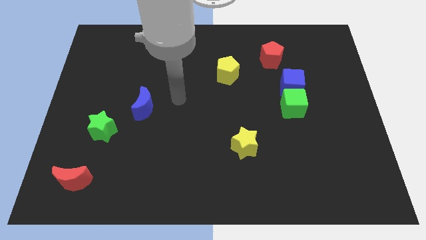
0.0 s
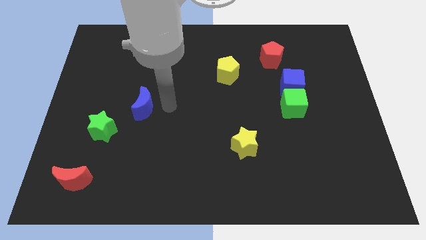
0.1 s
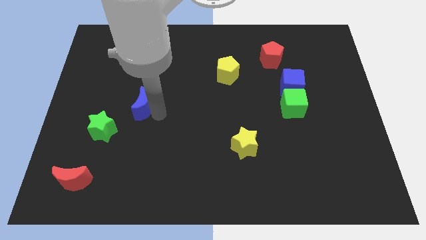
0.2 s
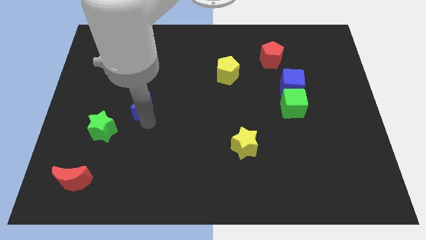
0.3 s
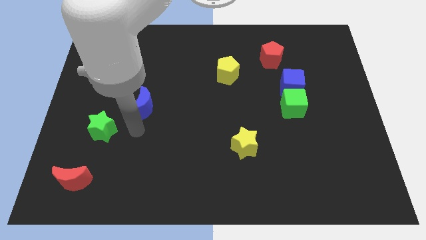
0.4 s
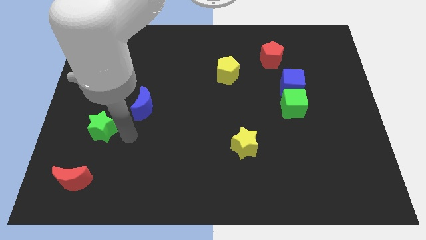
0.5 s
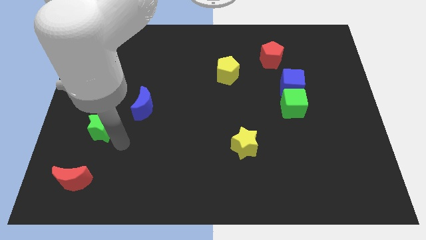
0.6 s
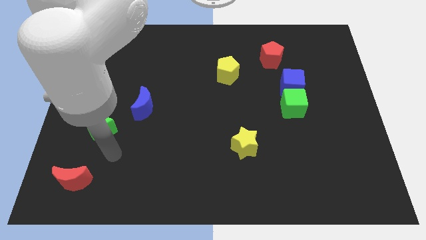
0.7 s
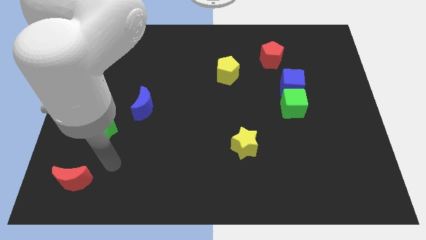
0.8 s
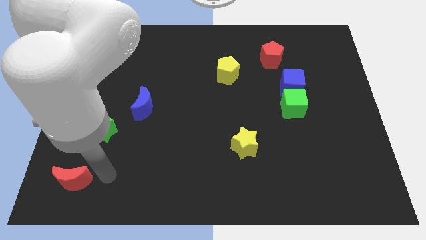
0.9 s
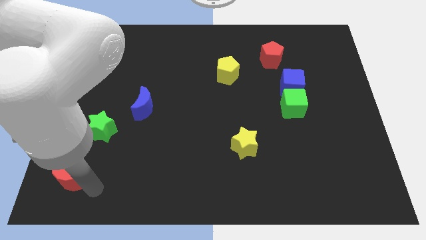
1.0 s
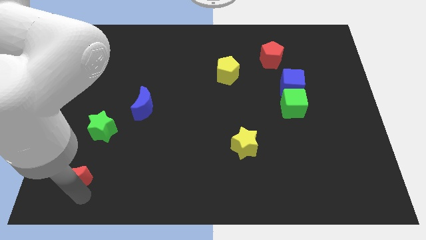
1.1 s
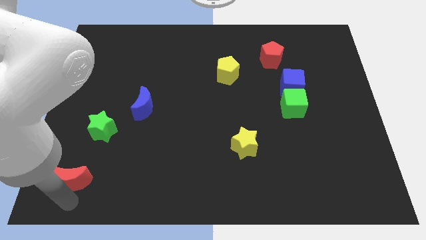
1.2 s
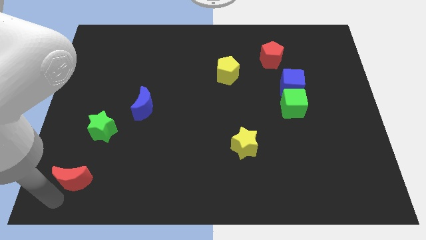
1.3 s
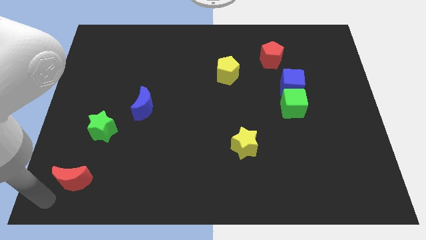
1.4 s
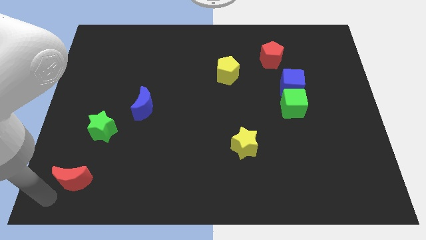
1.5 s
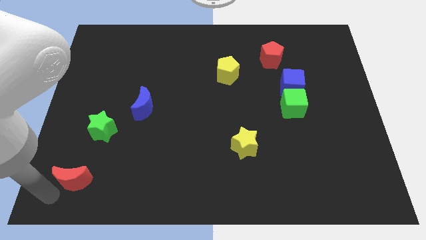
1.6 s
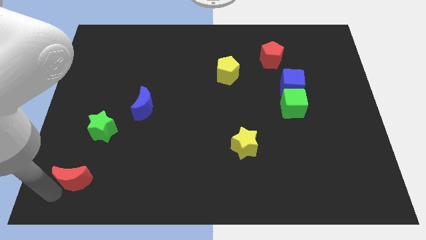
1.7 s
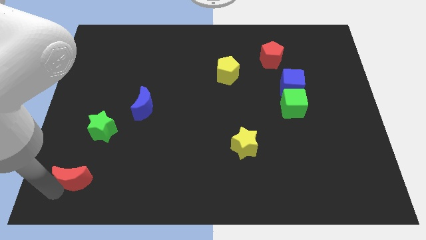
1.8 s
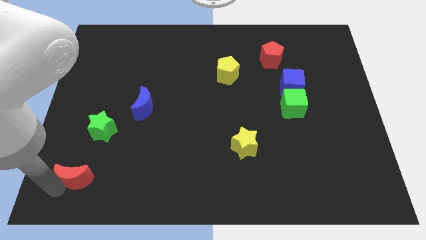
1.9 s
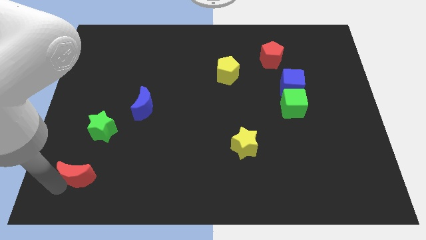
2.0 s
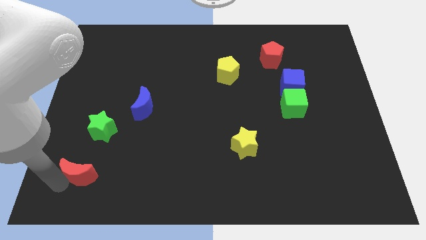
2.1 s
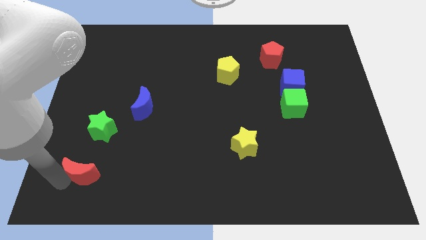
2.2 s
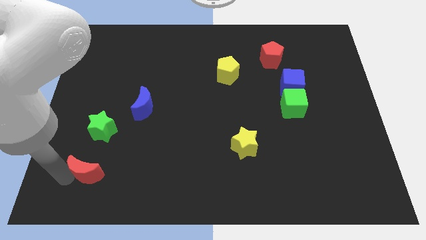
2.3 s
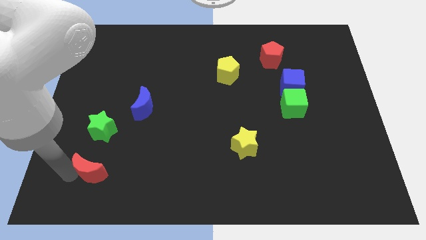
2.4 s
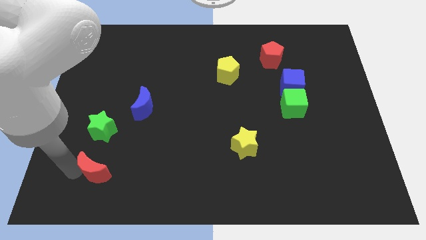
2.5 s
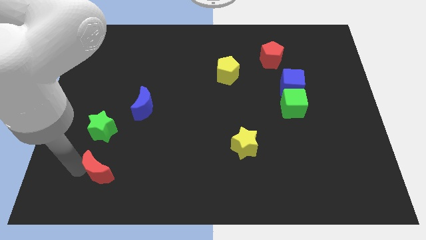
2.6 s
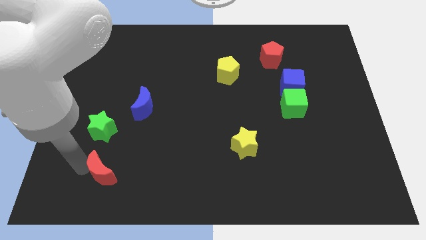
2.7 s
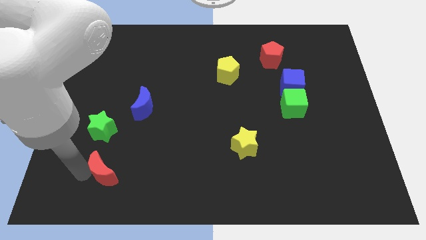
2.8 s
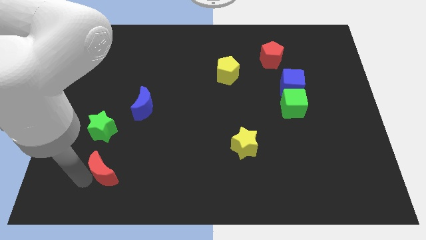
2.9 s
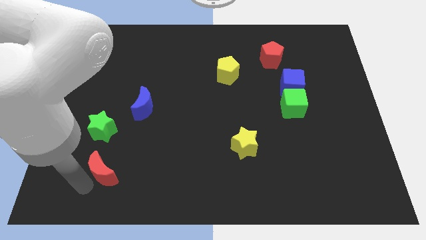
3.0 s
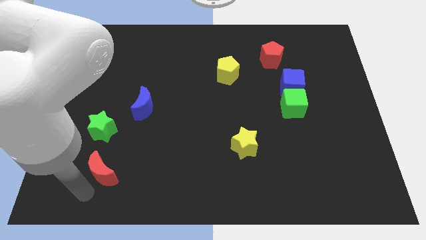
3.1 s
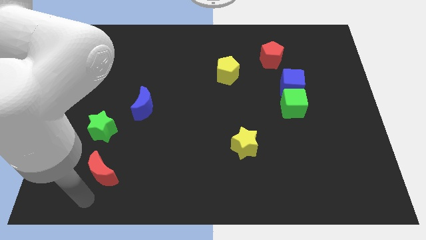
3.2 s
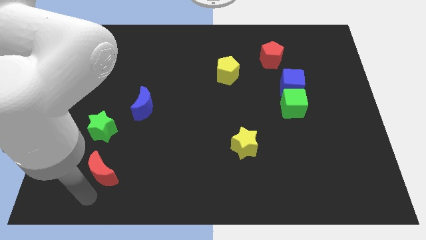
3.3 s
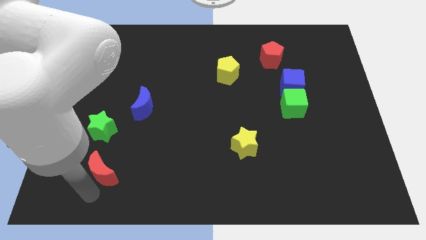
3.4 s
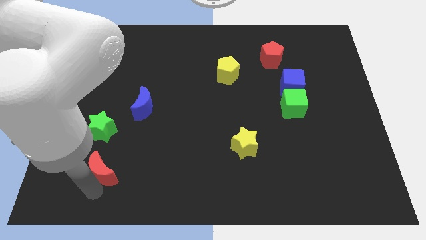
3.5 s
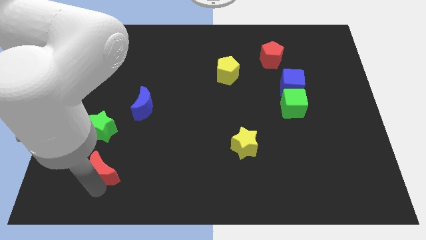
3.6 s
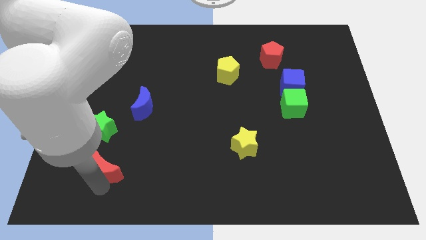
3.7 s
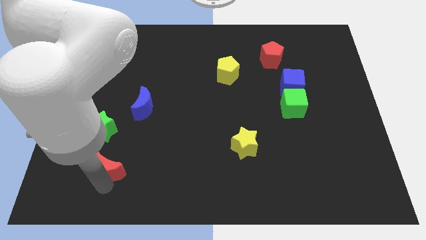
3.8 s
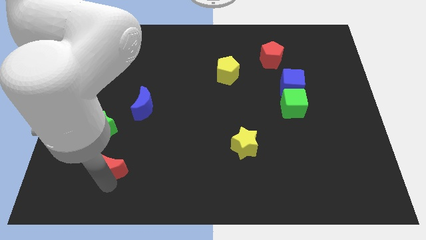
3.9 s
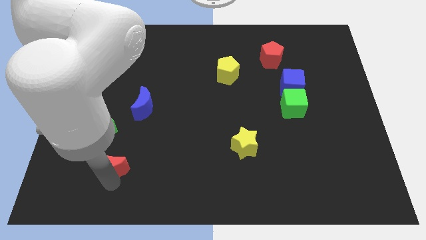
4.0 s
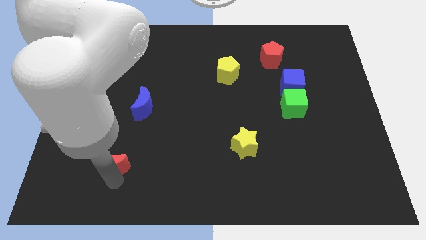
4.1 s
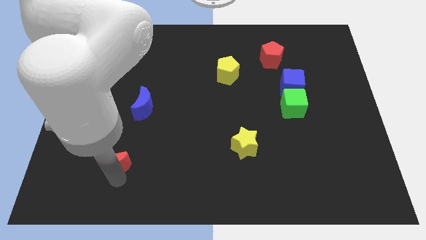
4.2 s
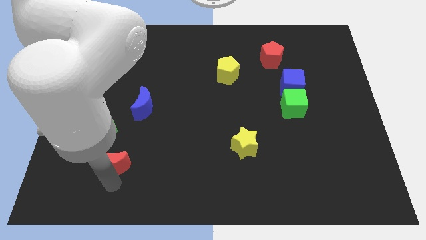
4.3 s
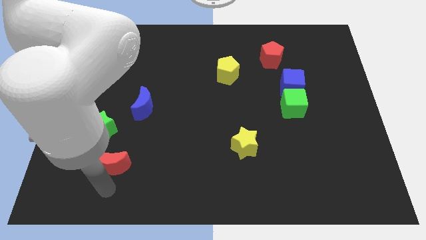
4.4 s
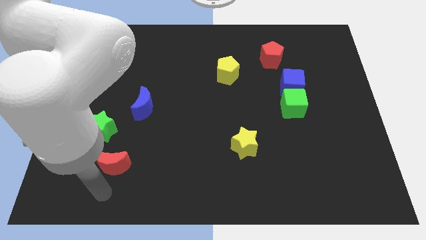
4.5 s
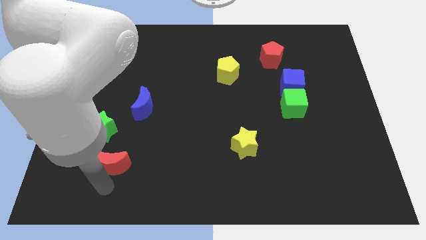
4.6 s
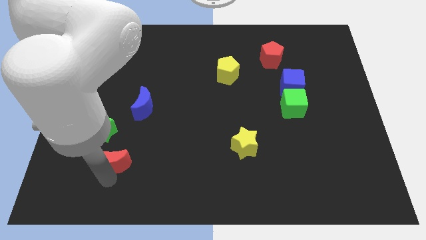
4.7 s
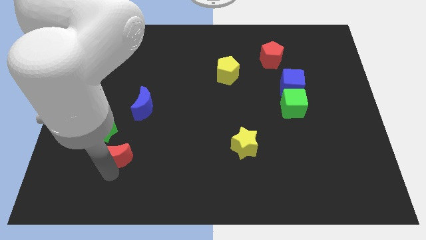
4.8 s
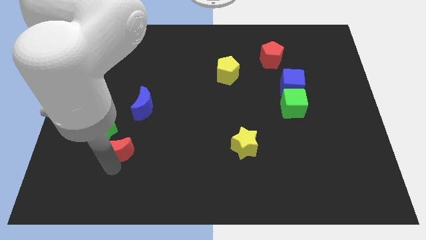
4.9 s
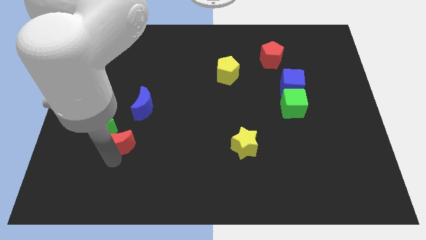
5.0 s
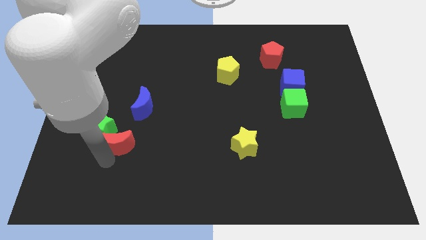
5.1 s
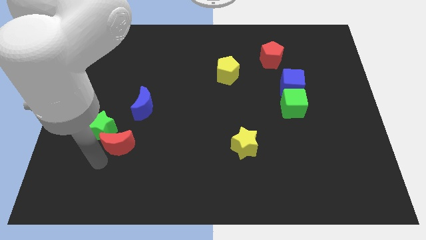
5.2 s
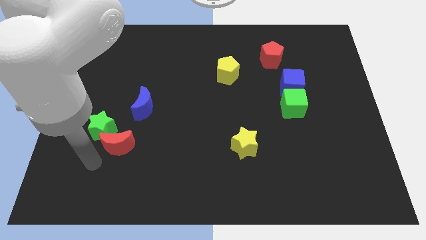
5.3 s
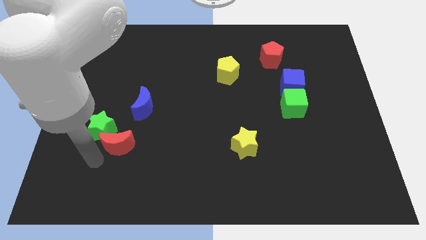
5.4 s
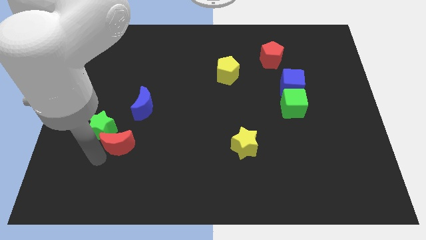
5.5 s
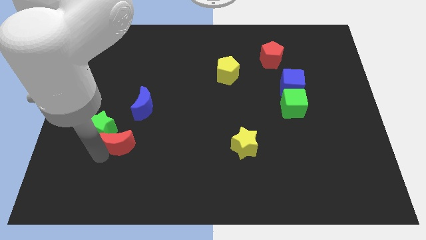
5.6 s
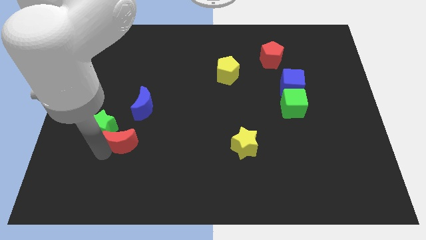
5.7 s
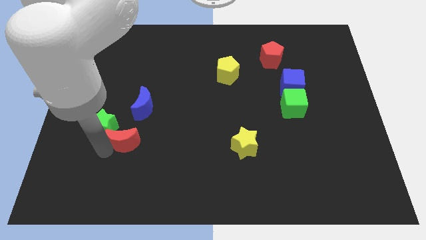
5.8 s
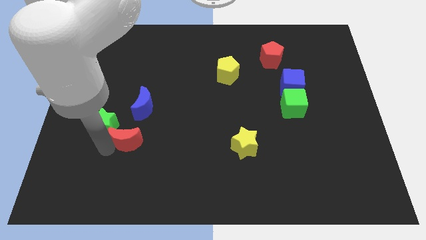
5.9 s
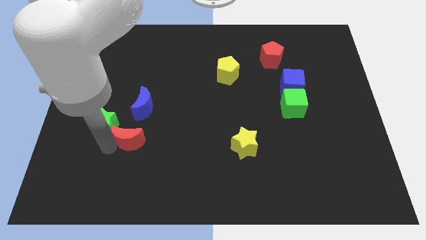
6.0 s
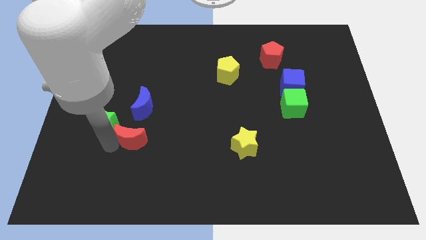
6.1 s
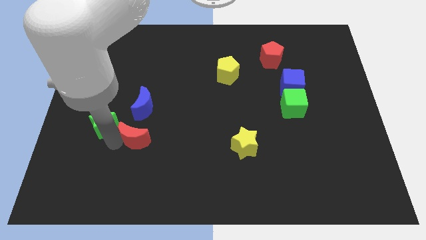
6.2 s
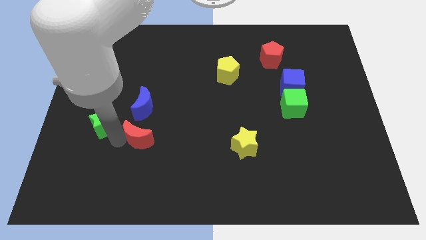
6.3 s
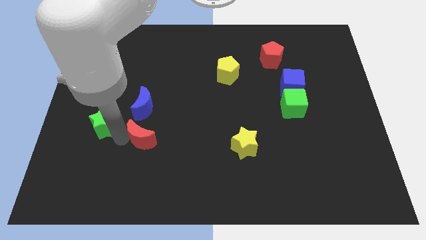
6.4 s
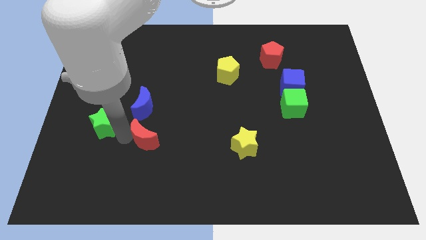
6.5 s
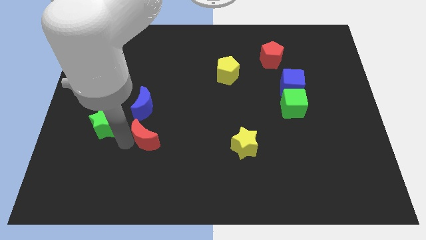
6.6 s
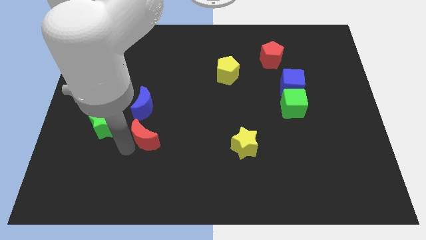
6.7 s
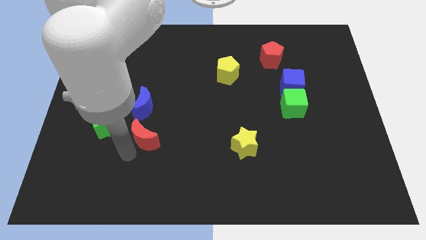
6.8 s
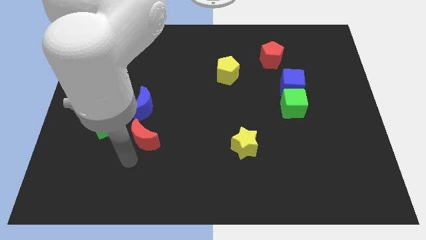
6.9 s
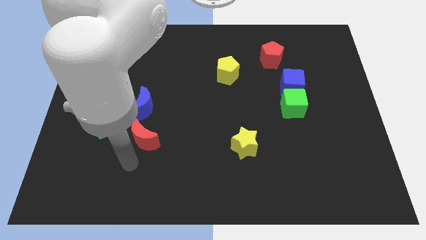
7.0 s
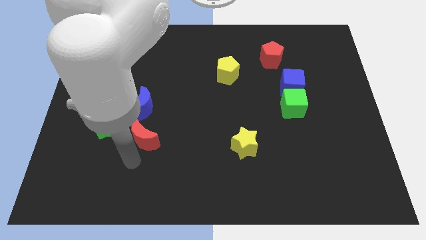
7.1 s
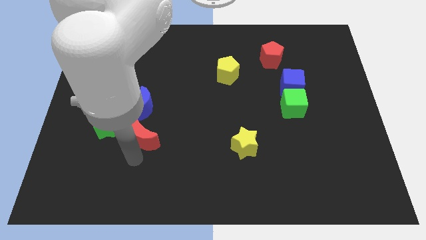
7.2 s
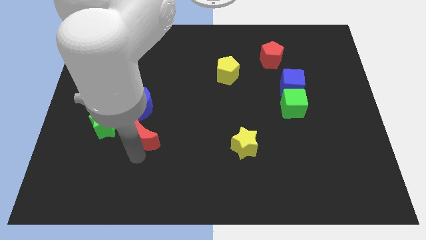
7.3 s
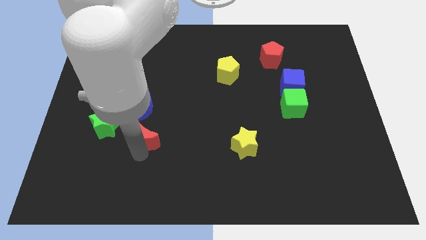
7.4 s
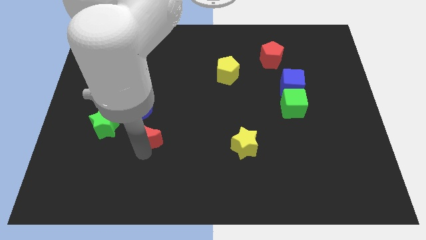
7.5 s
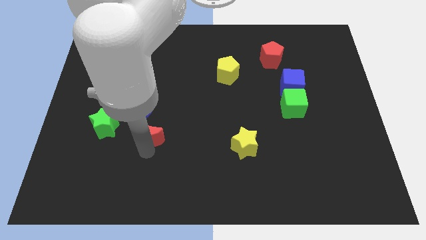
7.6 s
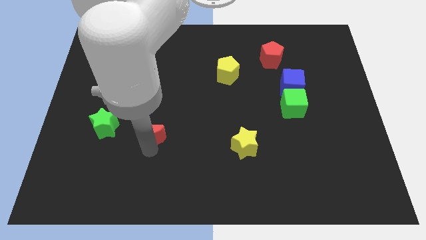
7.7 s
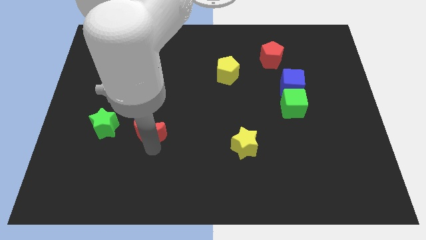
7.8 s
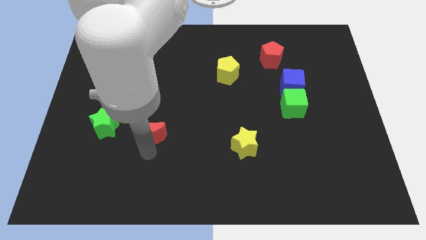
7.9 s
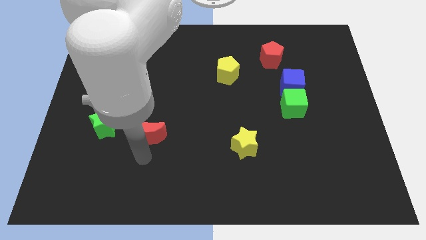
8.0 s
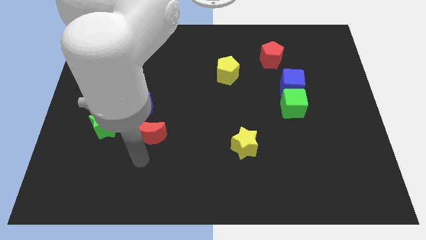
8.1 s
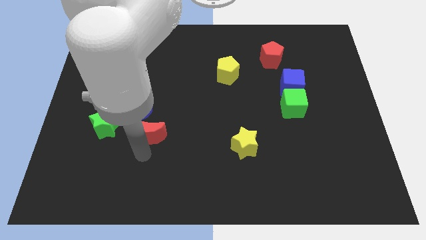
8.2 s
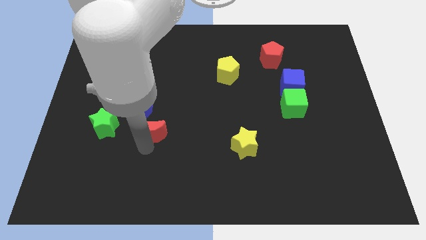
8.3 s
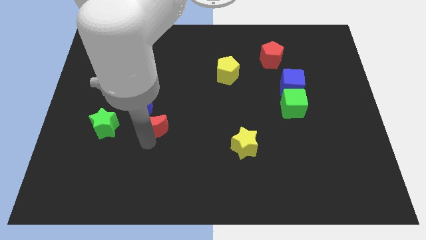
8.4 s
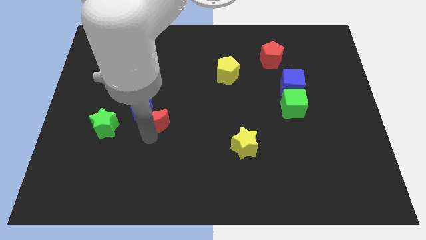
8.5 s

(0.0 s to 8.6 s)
slide the red moon diagonally upwards and right
